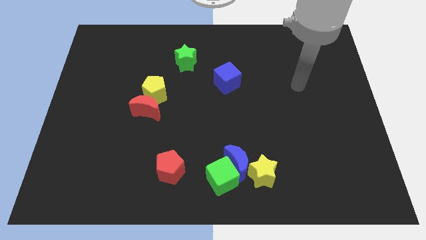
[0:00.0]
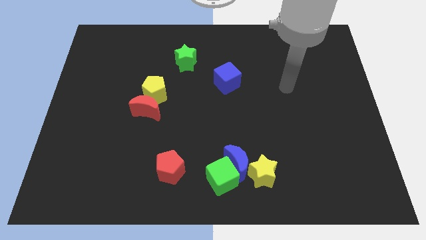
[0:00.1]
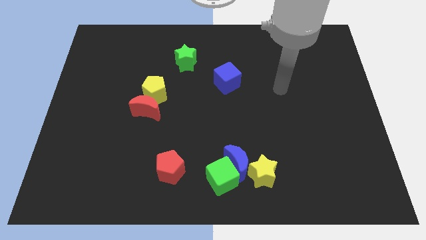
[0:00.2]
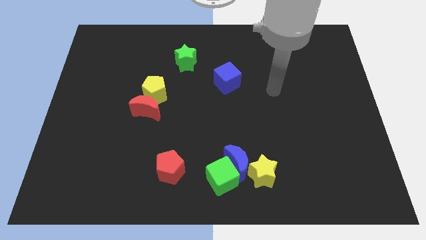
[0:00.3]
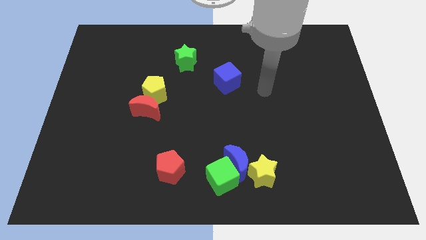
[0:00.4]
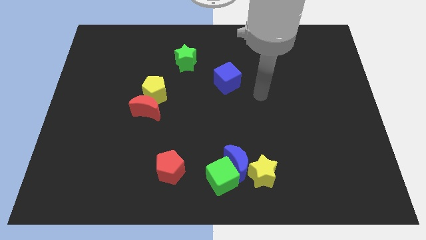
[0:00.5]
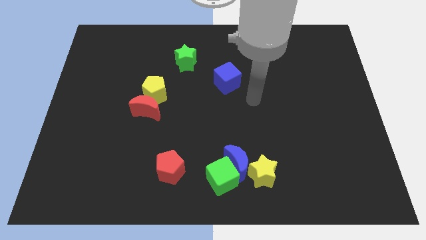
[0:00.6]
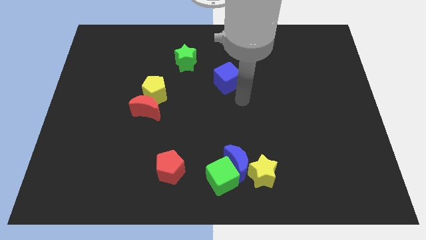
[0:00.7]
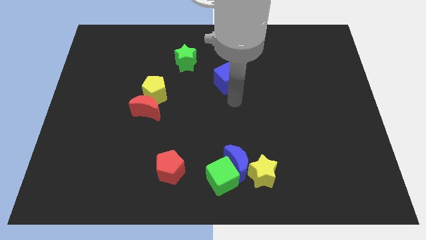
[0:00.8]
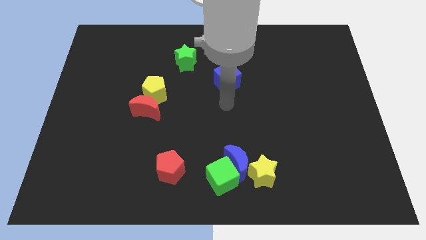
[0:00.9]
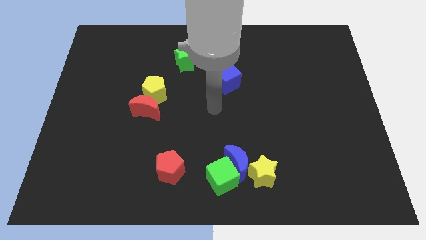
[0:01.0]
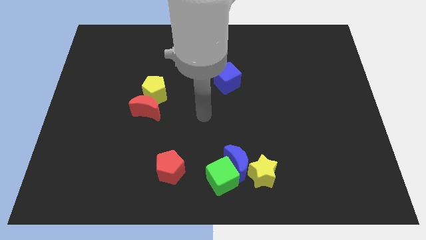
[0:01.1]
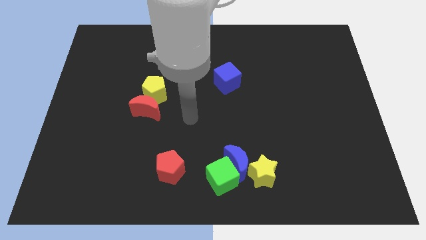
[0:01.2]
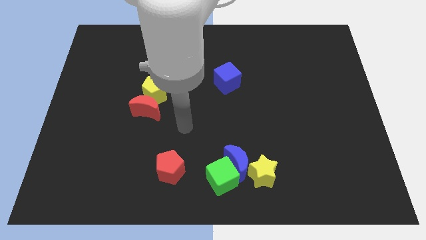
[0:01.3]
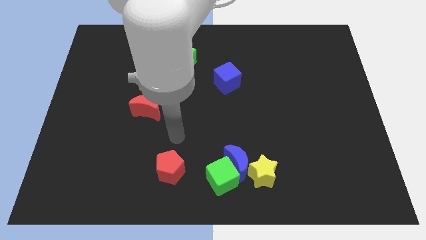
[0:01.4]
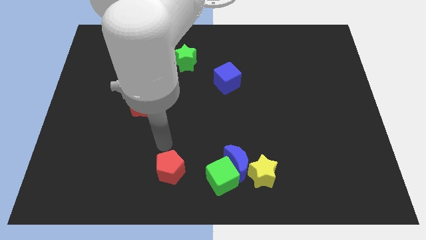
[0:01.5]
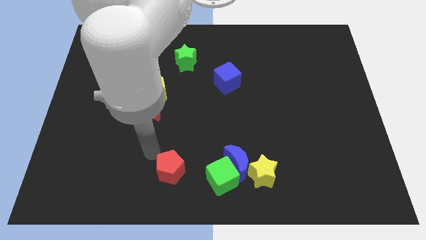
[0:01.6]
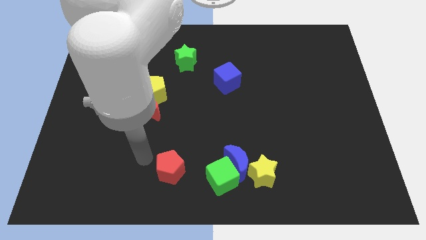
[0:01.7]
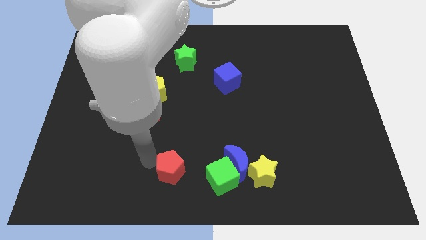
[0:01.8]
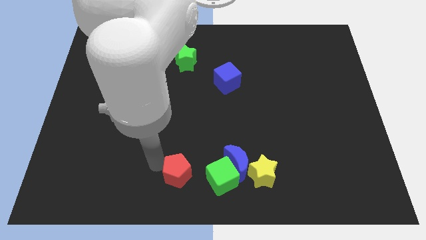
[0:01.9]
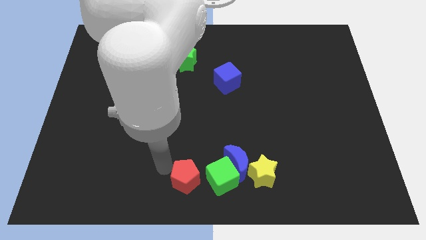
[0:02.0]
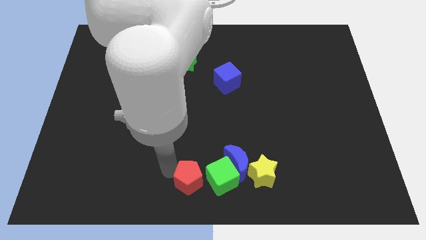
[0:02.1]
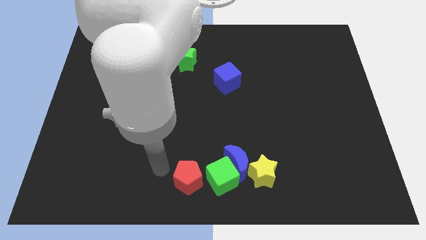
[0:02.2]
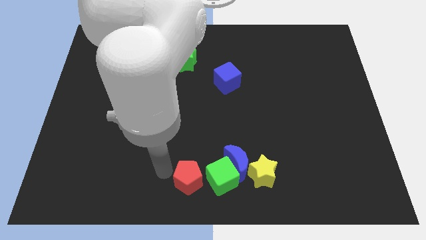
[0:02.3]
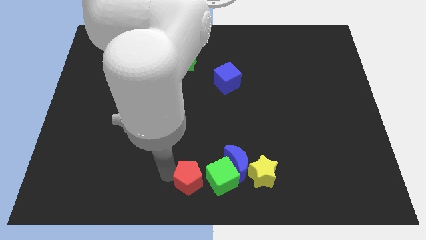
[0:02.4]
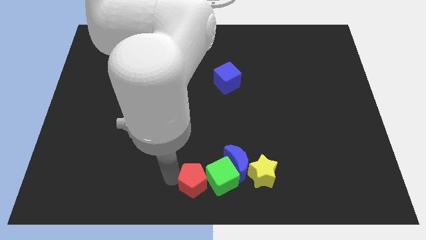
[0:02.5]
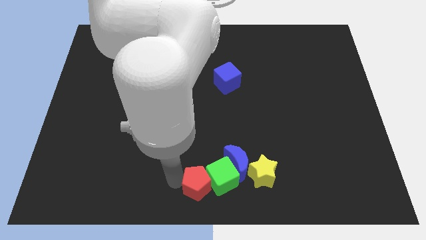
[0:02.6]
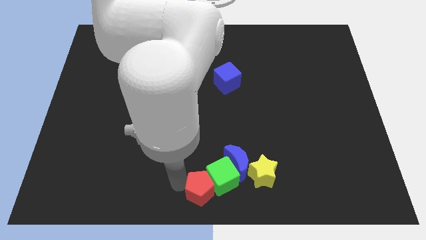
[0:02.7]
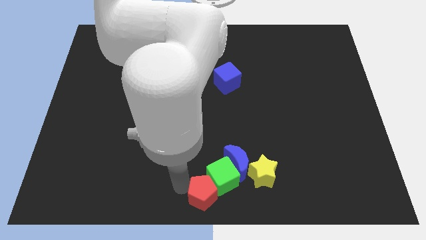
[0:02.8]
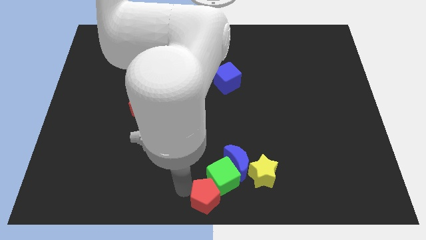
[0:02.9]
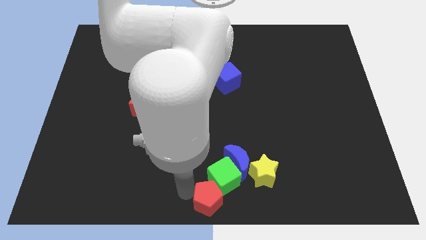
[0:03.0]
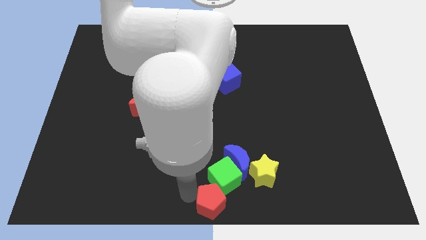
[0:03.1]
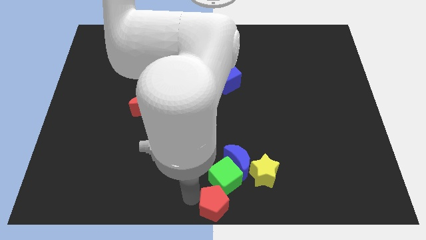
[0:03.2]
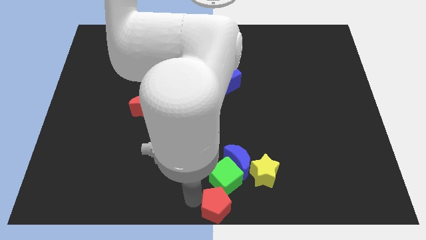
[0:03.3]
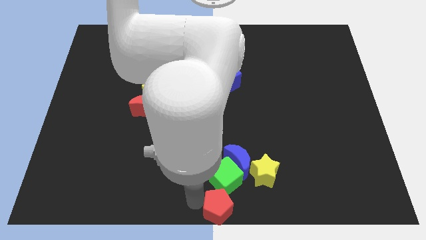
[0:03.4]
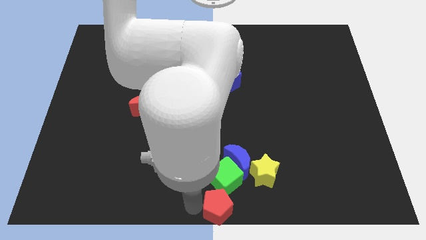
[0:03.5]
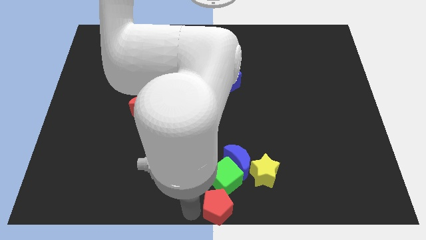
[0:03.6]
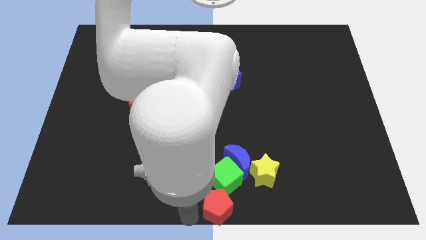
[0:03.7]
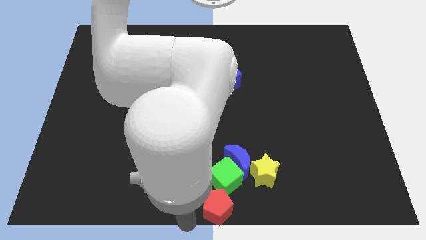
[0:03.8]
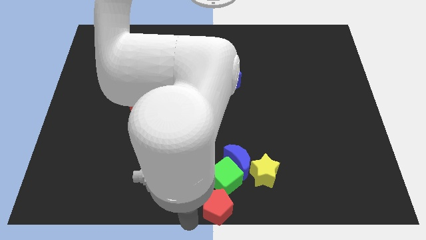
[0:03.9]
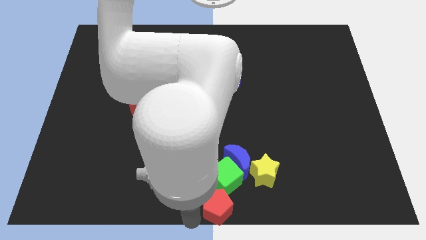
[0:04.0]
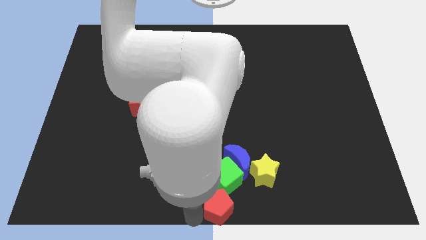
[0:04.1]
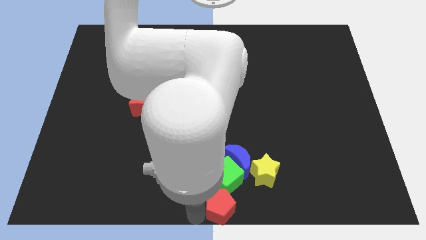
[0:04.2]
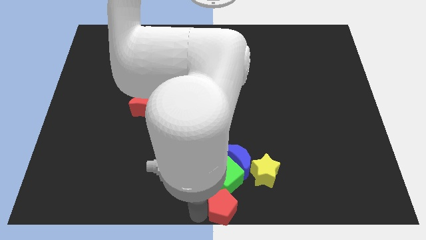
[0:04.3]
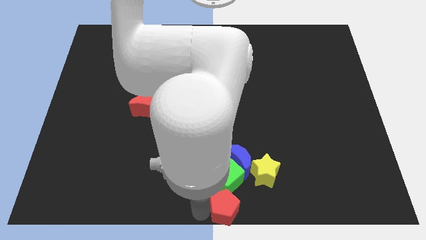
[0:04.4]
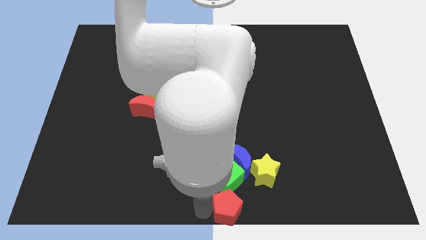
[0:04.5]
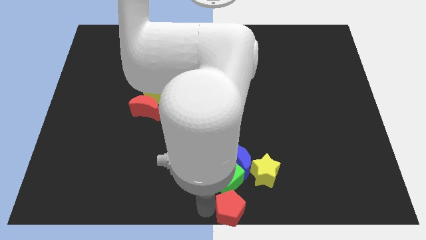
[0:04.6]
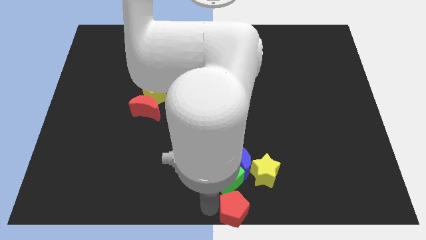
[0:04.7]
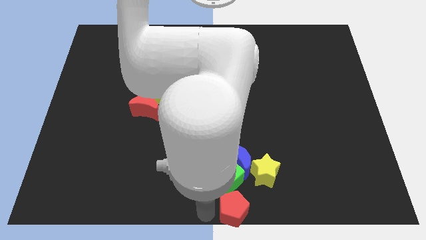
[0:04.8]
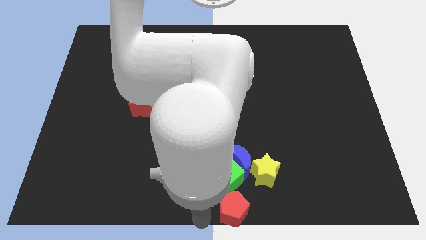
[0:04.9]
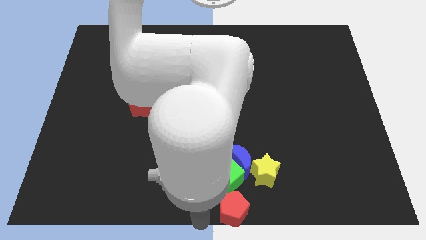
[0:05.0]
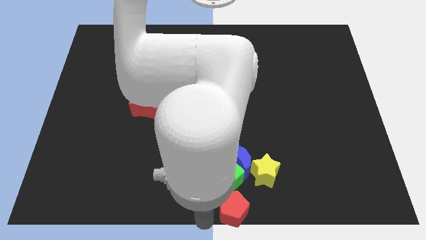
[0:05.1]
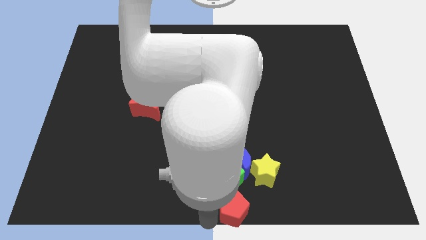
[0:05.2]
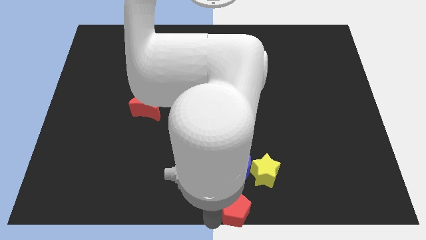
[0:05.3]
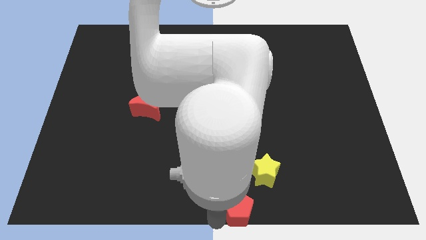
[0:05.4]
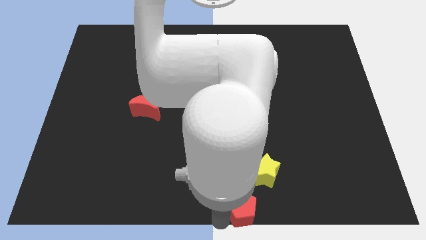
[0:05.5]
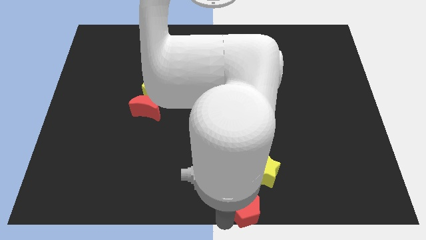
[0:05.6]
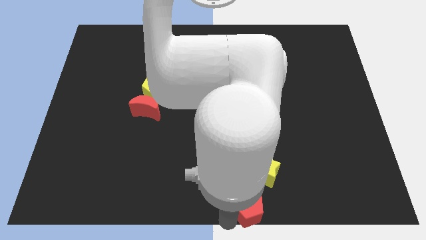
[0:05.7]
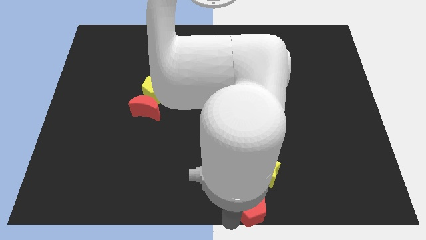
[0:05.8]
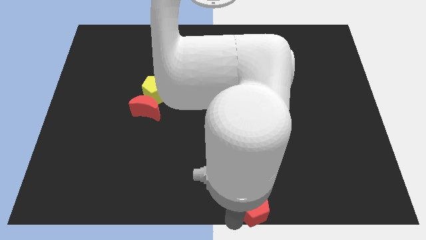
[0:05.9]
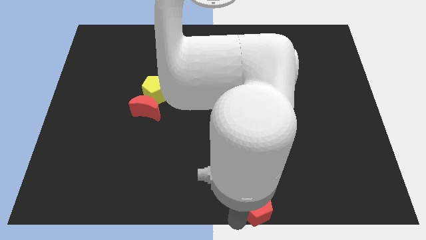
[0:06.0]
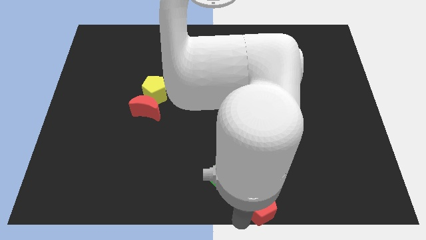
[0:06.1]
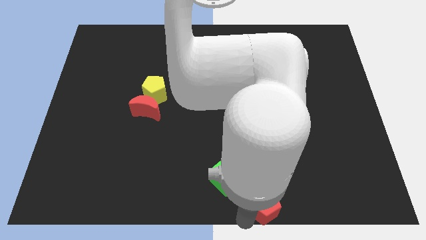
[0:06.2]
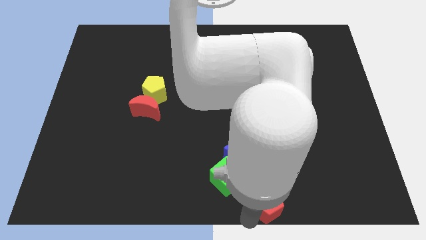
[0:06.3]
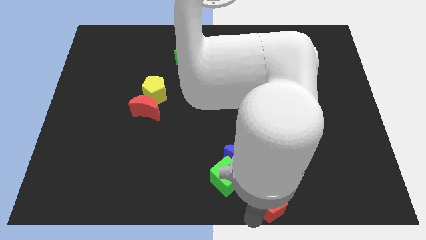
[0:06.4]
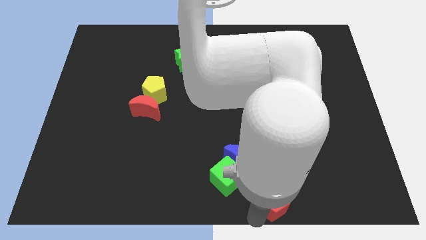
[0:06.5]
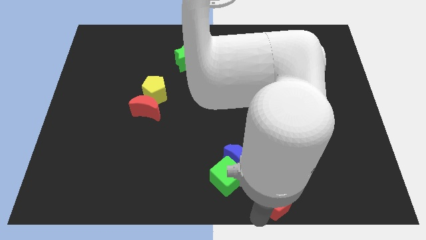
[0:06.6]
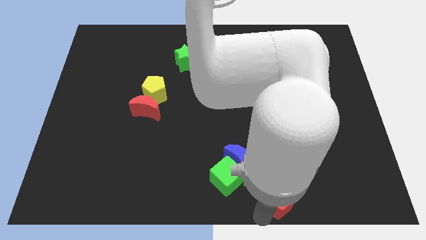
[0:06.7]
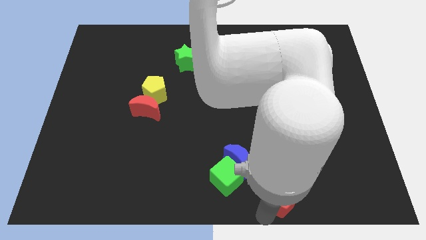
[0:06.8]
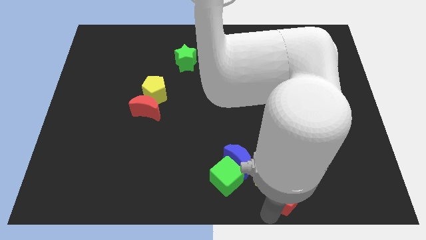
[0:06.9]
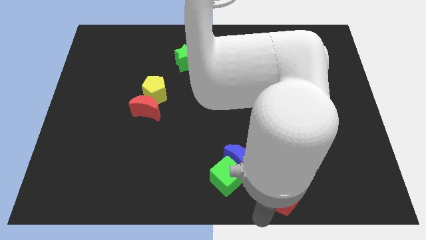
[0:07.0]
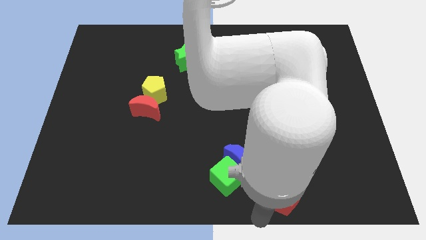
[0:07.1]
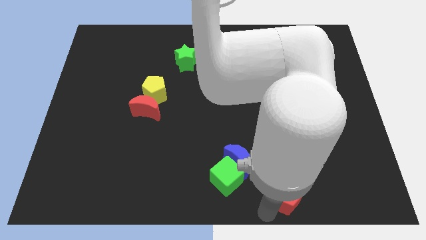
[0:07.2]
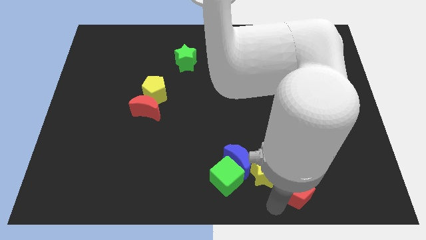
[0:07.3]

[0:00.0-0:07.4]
put the red pentagon to the right side of the yellow star

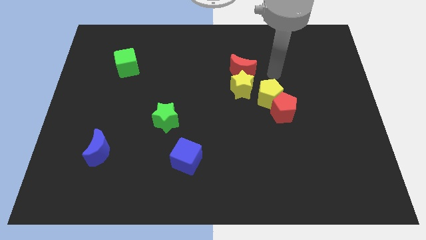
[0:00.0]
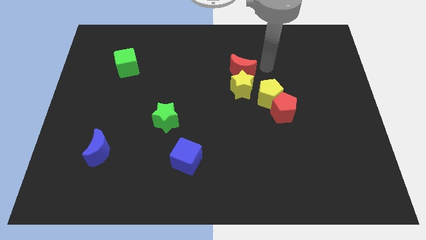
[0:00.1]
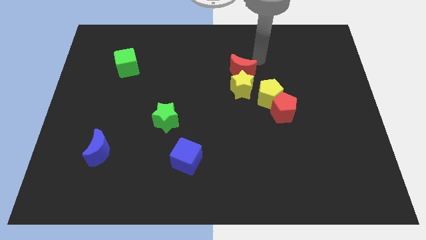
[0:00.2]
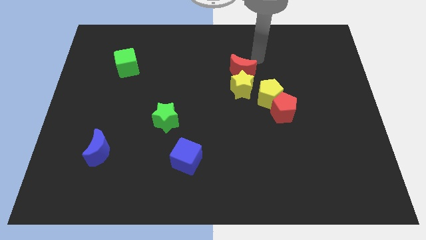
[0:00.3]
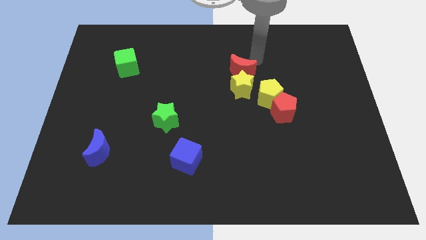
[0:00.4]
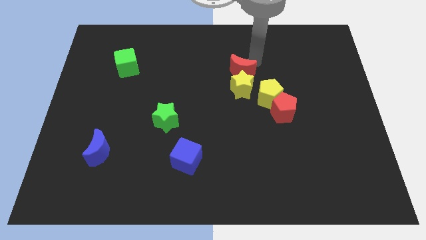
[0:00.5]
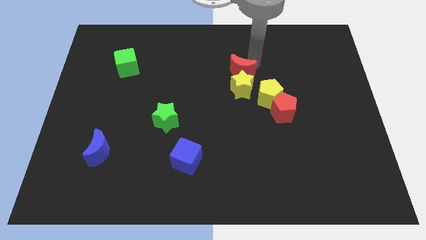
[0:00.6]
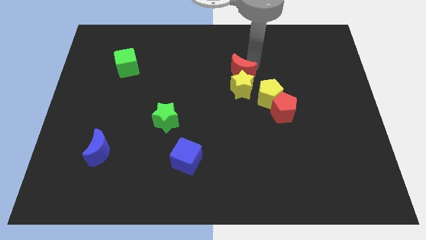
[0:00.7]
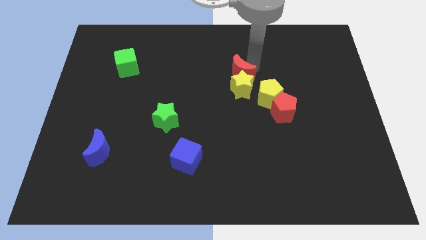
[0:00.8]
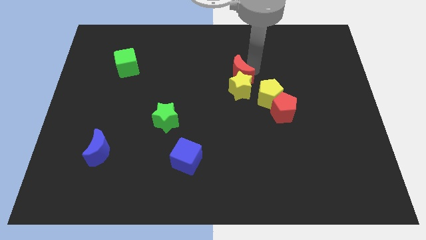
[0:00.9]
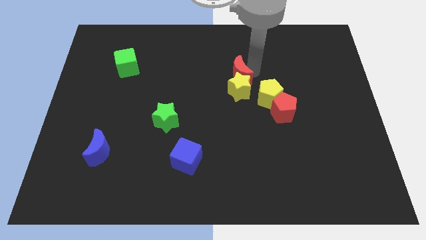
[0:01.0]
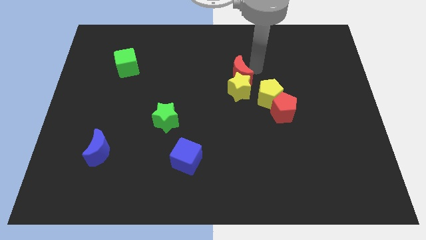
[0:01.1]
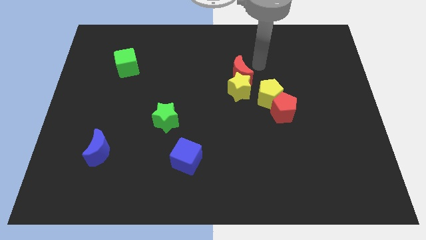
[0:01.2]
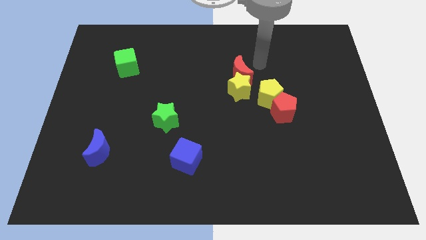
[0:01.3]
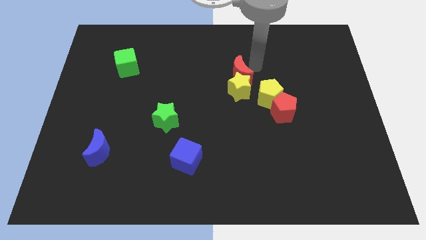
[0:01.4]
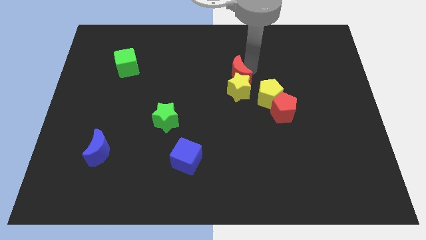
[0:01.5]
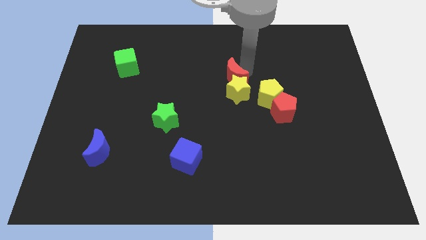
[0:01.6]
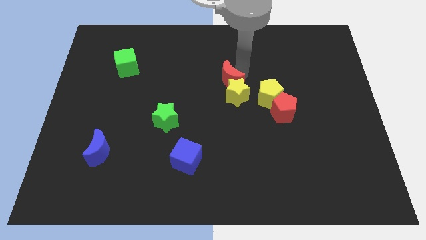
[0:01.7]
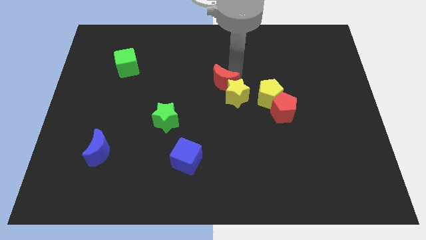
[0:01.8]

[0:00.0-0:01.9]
slide the red moon to the left side of the yellow pentagon
